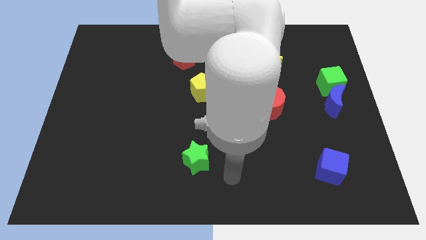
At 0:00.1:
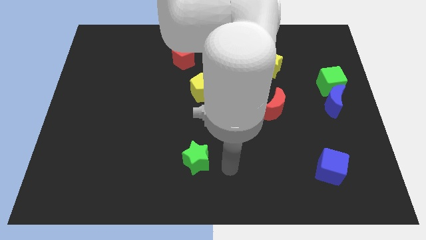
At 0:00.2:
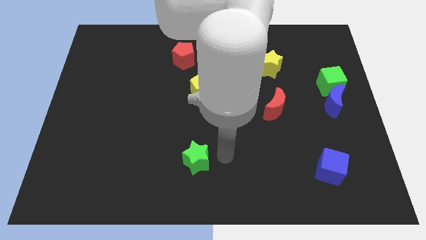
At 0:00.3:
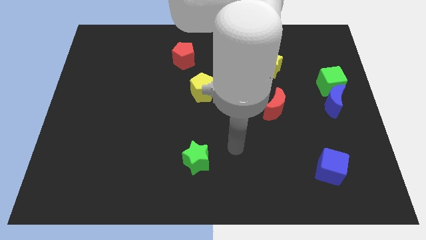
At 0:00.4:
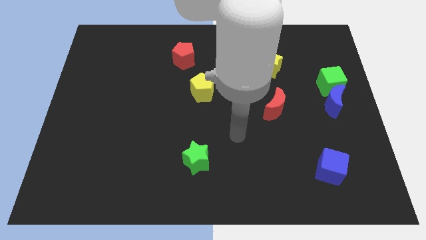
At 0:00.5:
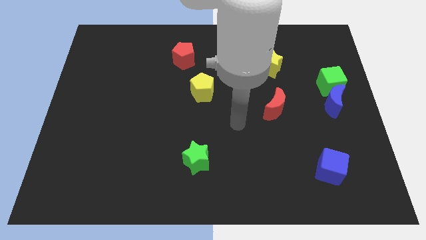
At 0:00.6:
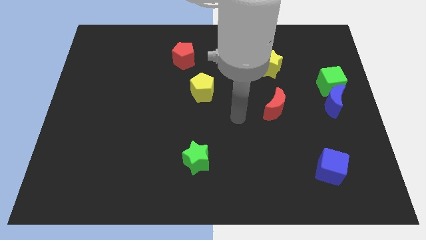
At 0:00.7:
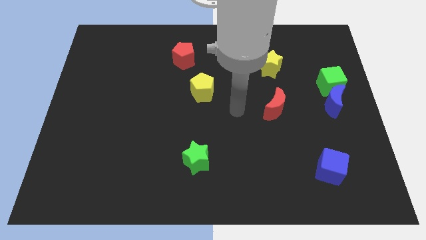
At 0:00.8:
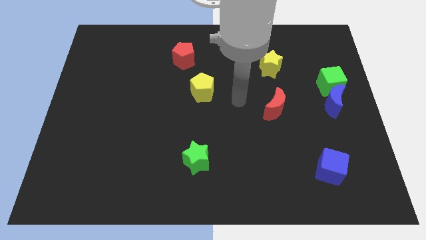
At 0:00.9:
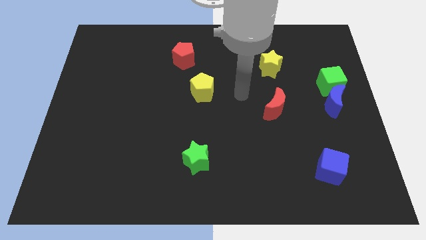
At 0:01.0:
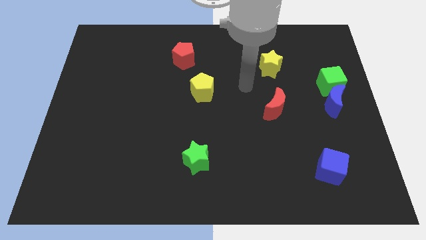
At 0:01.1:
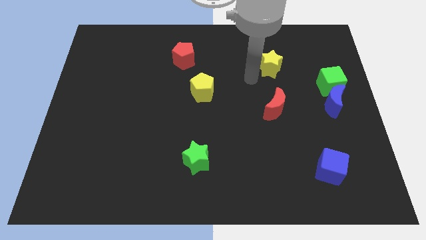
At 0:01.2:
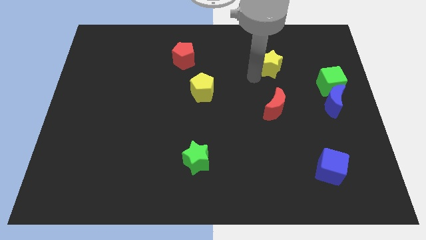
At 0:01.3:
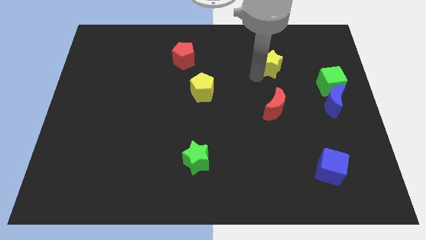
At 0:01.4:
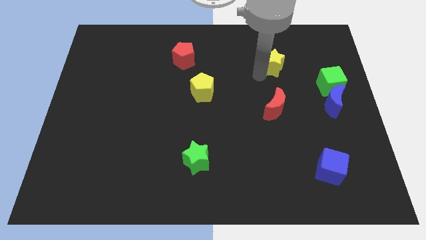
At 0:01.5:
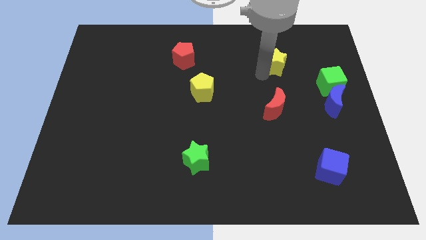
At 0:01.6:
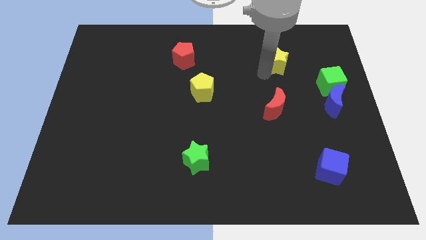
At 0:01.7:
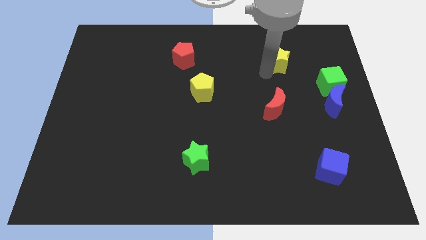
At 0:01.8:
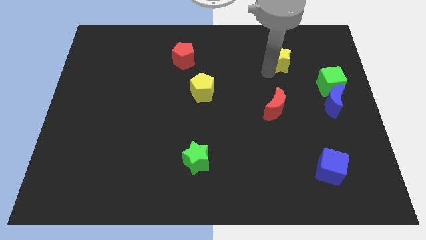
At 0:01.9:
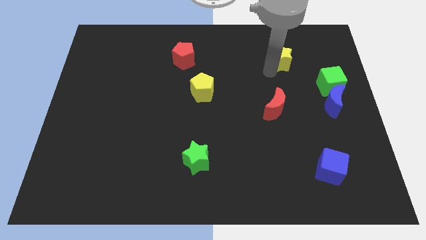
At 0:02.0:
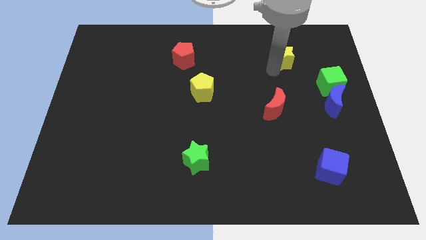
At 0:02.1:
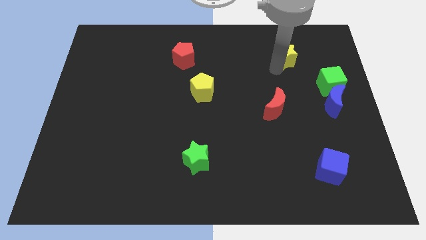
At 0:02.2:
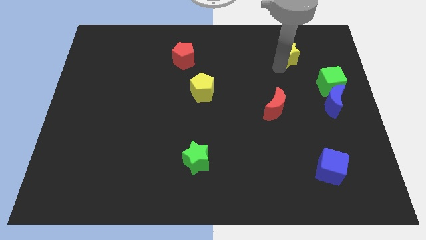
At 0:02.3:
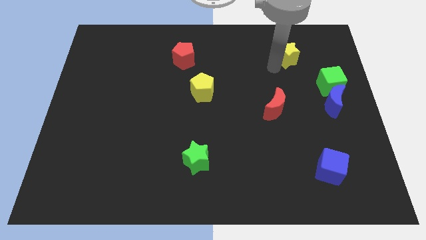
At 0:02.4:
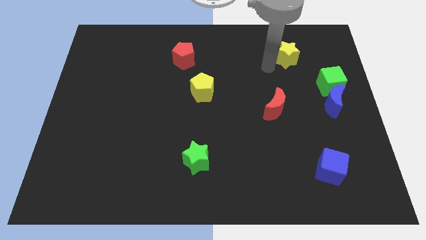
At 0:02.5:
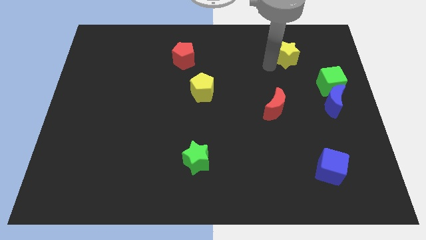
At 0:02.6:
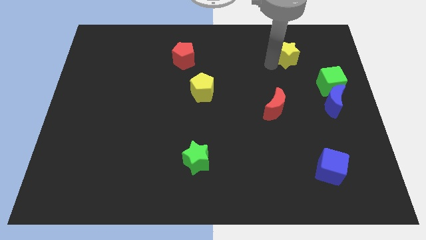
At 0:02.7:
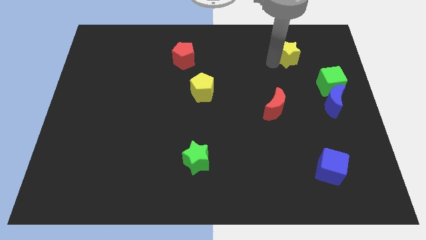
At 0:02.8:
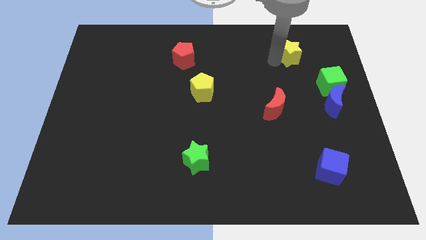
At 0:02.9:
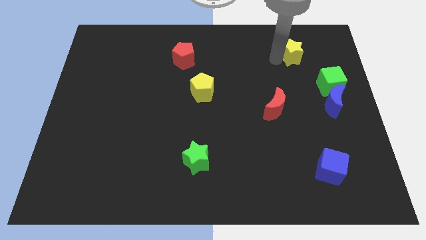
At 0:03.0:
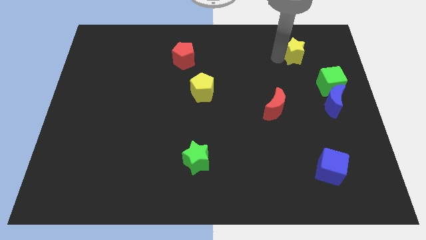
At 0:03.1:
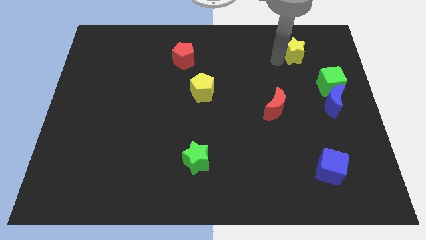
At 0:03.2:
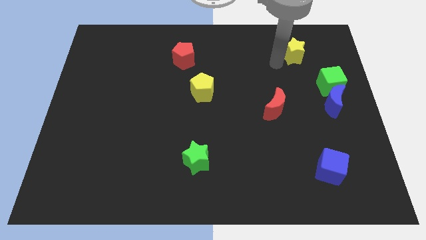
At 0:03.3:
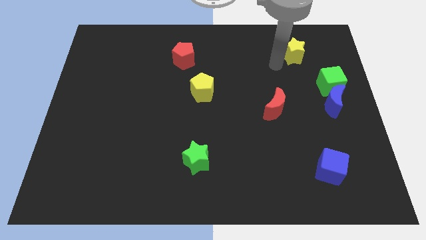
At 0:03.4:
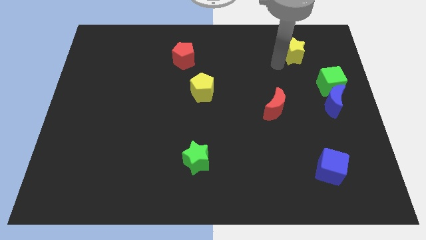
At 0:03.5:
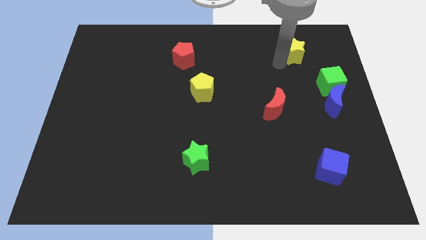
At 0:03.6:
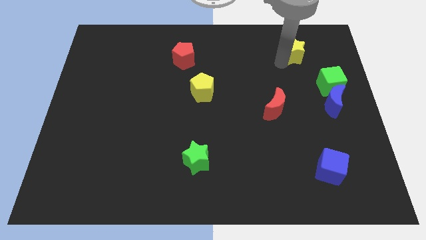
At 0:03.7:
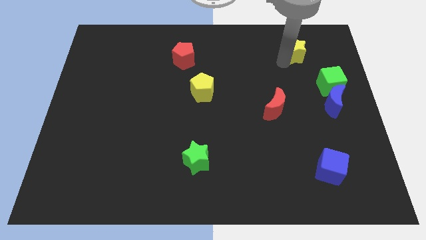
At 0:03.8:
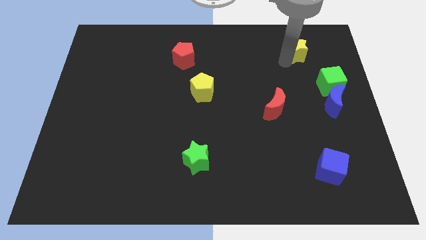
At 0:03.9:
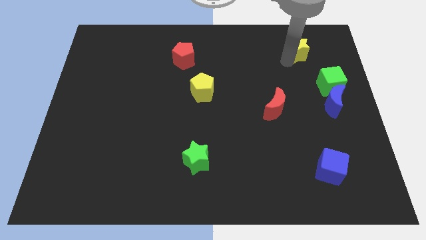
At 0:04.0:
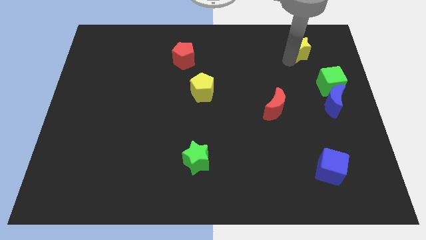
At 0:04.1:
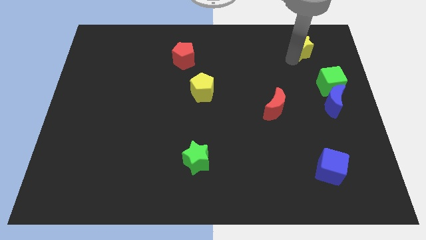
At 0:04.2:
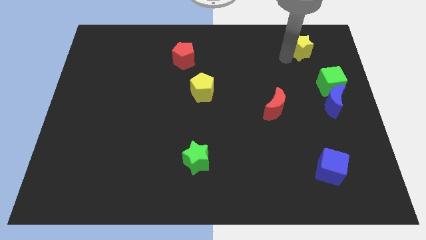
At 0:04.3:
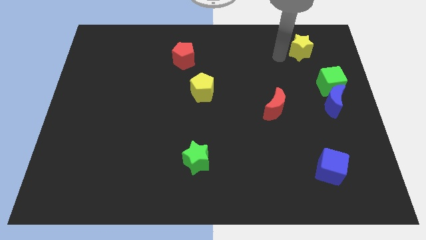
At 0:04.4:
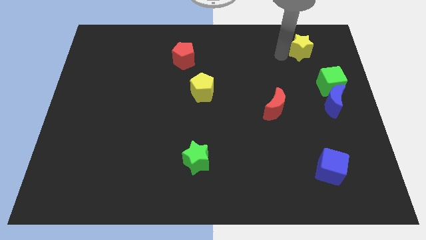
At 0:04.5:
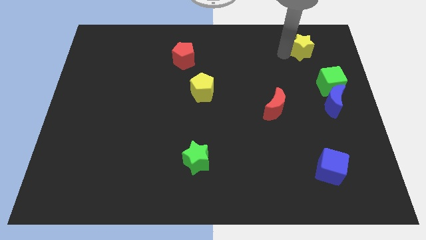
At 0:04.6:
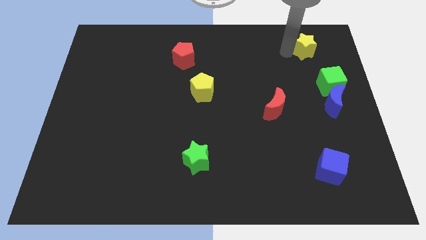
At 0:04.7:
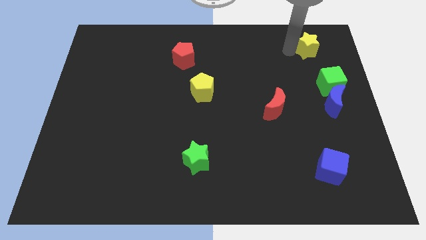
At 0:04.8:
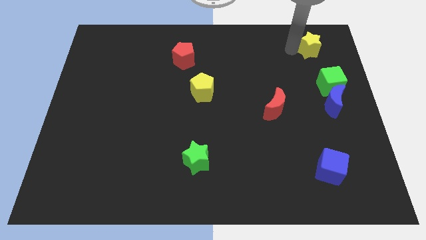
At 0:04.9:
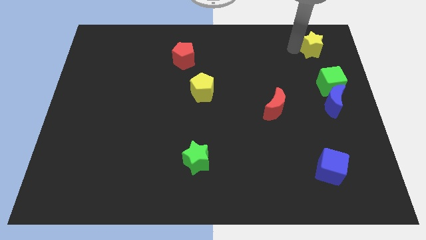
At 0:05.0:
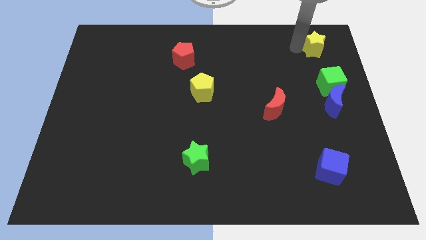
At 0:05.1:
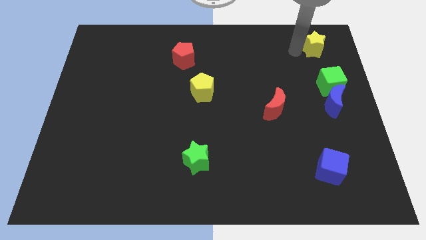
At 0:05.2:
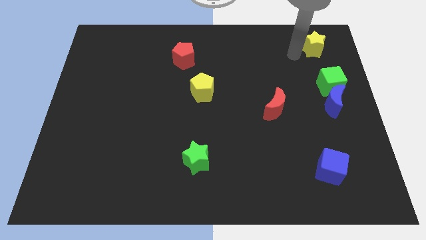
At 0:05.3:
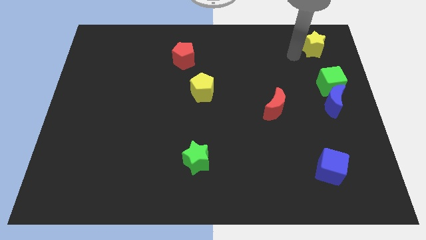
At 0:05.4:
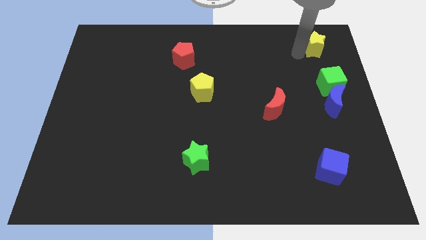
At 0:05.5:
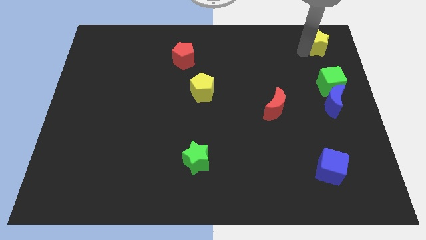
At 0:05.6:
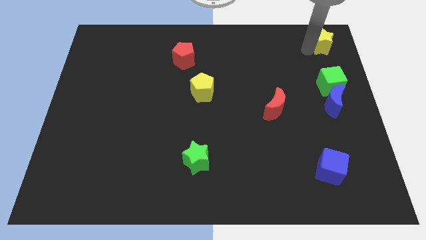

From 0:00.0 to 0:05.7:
move the yellow star to the top right of the board

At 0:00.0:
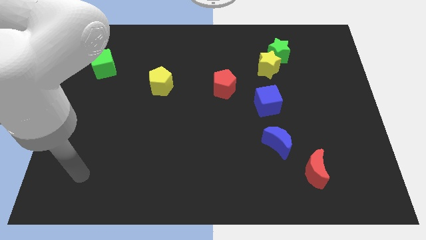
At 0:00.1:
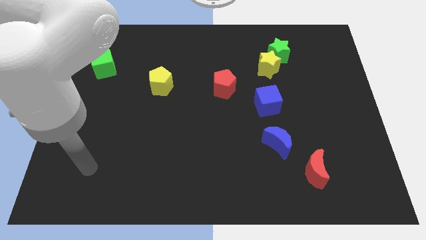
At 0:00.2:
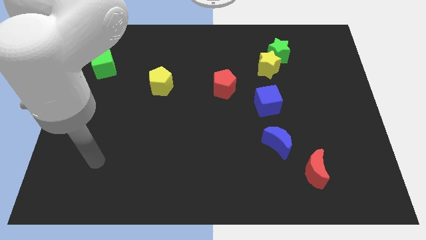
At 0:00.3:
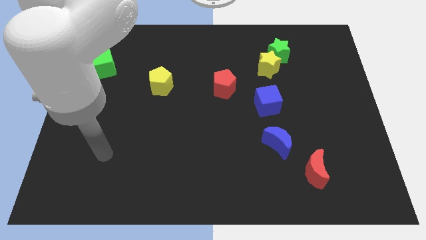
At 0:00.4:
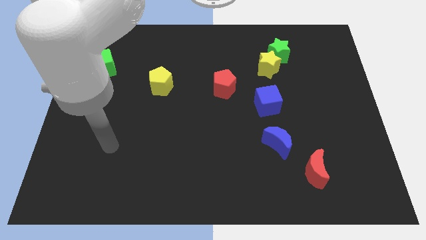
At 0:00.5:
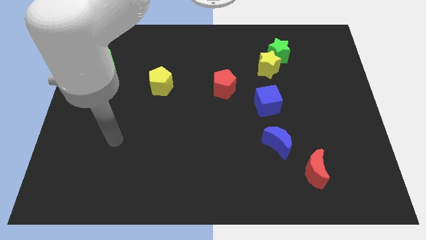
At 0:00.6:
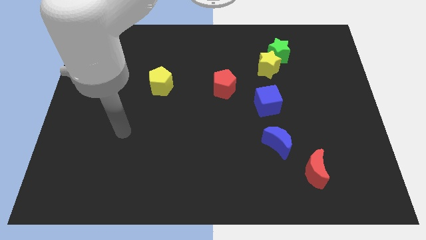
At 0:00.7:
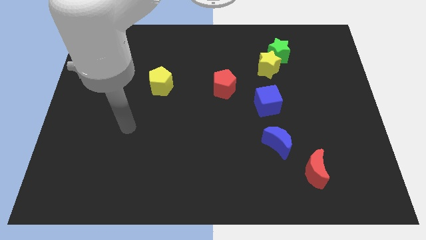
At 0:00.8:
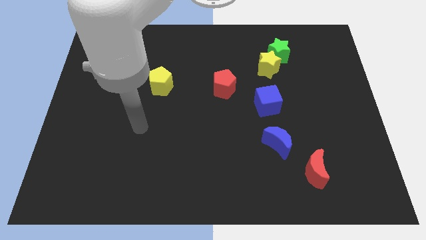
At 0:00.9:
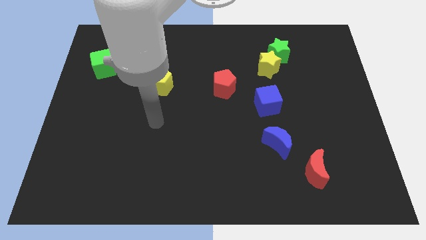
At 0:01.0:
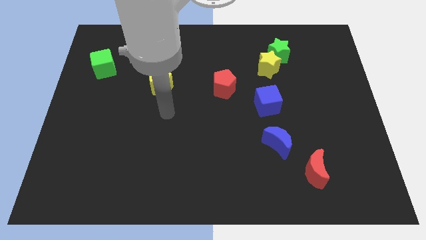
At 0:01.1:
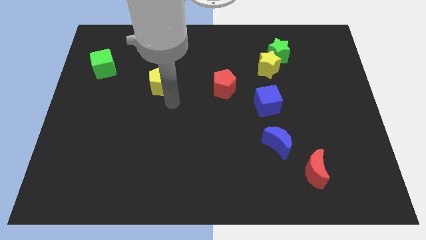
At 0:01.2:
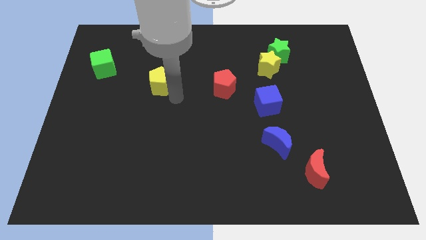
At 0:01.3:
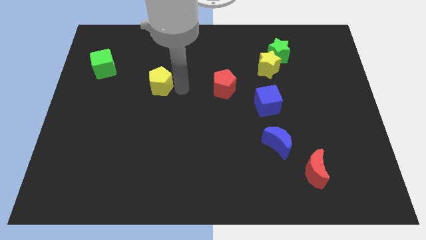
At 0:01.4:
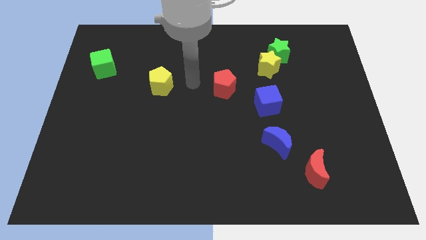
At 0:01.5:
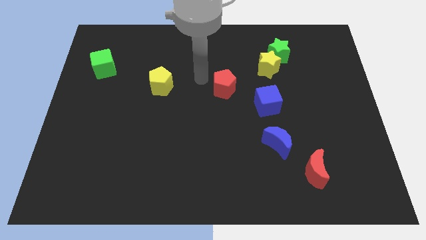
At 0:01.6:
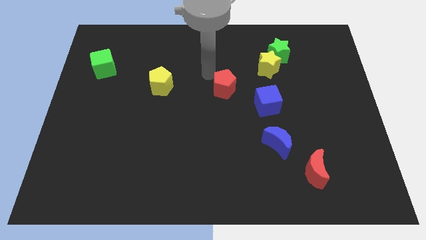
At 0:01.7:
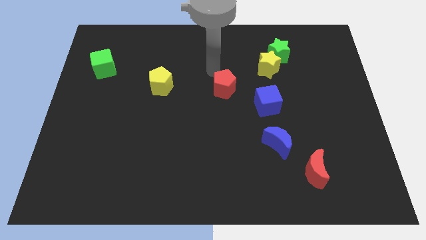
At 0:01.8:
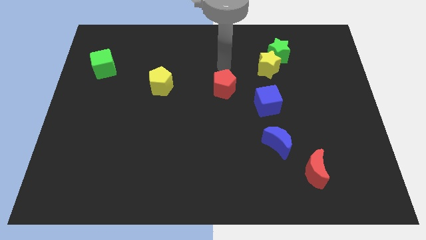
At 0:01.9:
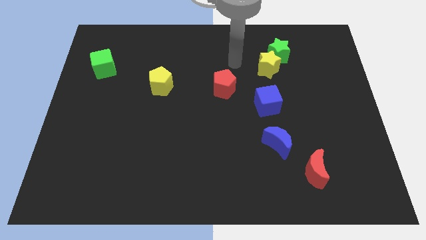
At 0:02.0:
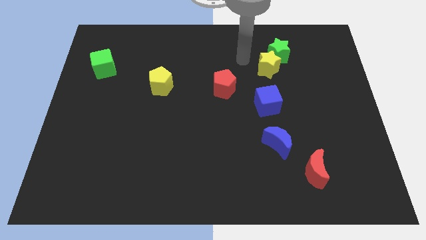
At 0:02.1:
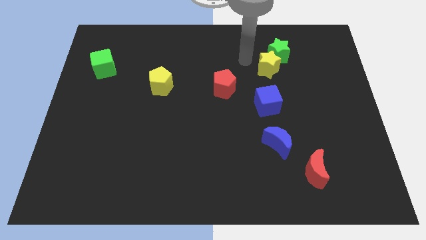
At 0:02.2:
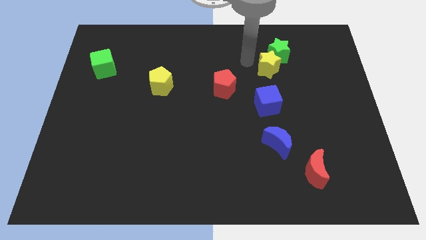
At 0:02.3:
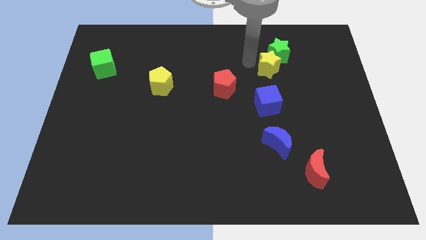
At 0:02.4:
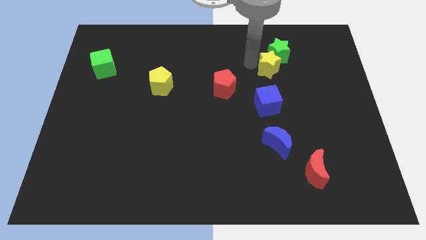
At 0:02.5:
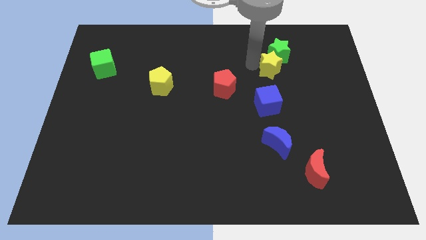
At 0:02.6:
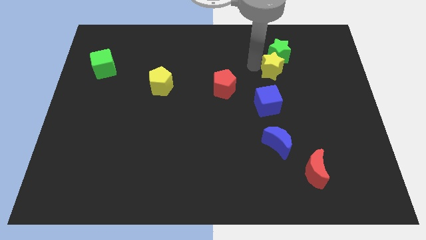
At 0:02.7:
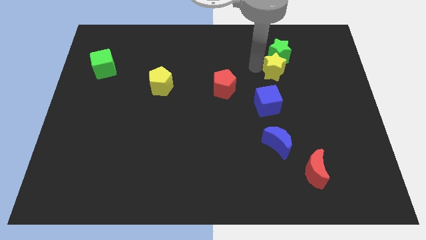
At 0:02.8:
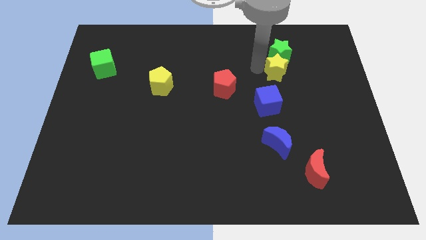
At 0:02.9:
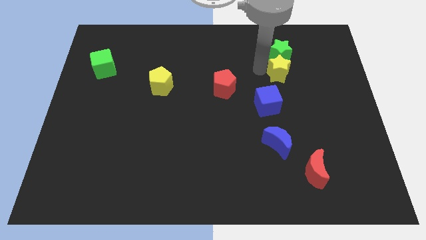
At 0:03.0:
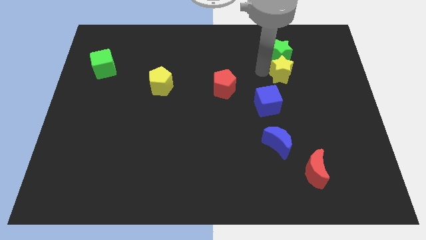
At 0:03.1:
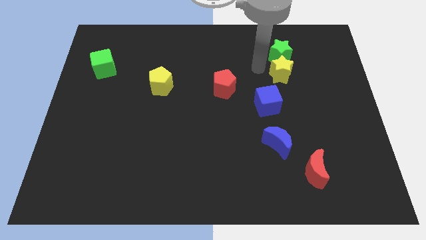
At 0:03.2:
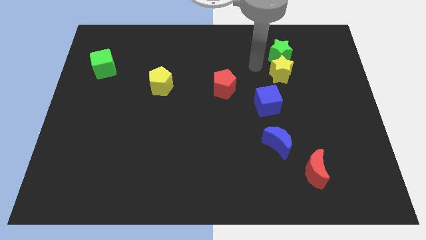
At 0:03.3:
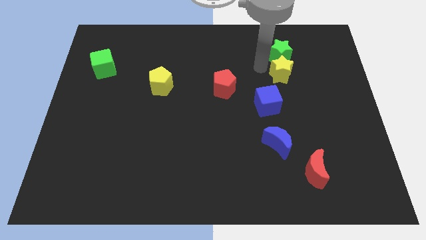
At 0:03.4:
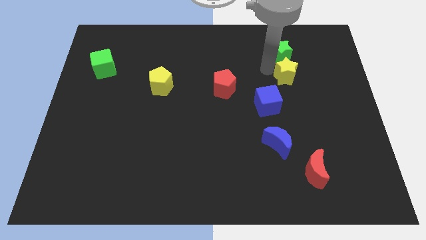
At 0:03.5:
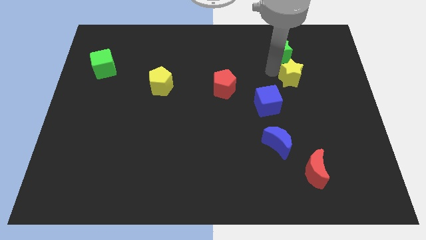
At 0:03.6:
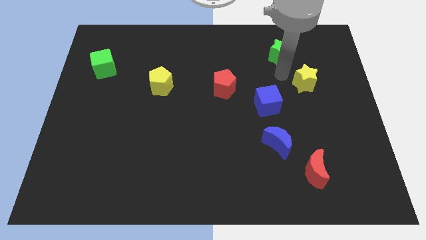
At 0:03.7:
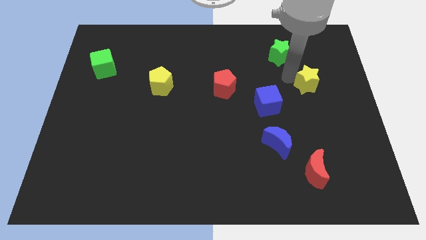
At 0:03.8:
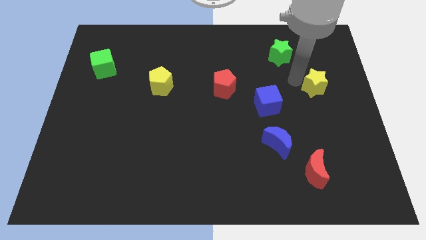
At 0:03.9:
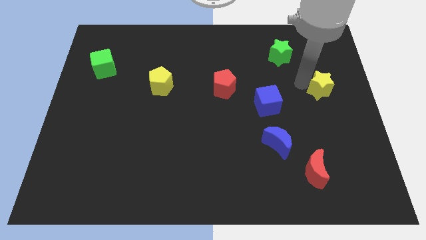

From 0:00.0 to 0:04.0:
put the yellow star to the right side
